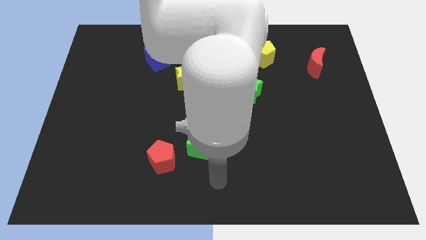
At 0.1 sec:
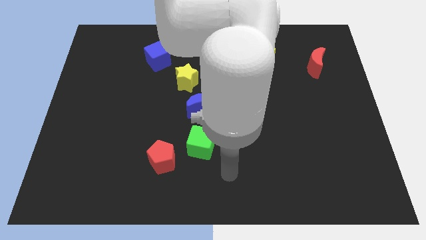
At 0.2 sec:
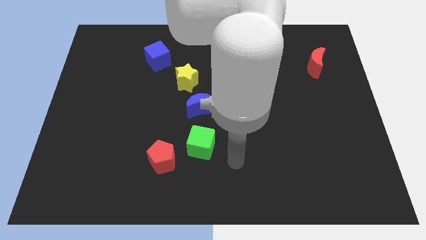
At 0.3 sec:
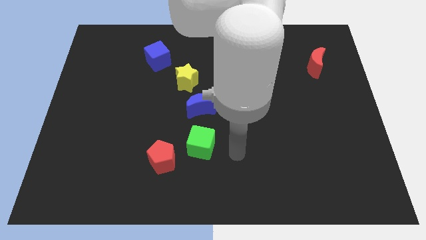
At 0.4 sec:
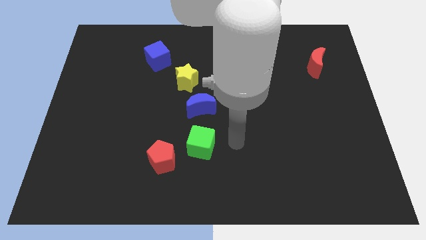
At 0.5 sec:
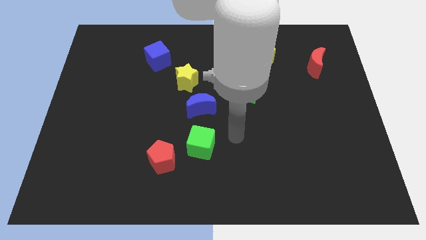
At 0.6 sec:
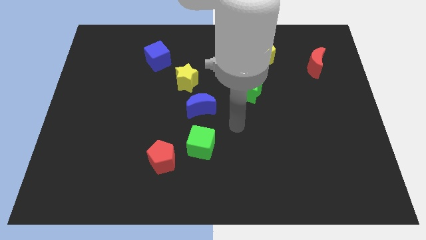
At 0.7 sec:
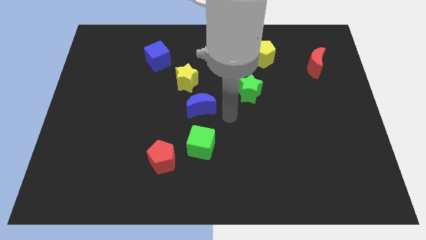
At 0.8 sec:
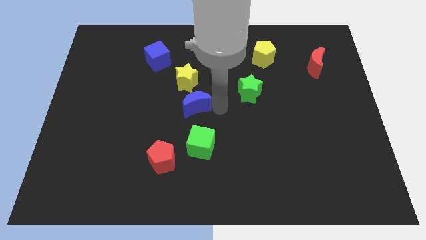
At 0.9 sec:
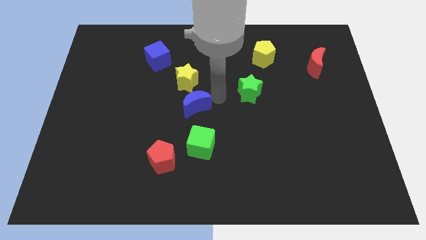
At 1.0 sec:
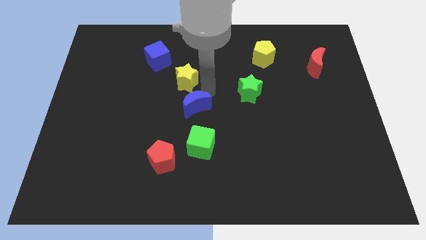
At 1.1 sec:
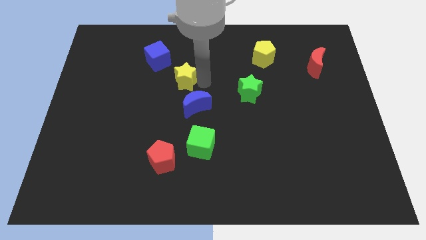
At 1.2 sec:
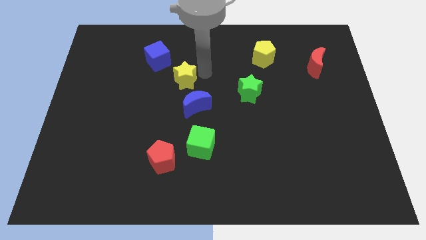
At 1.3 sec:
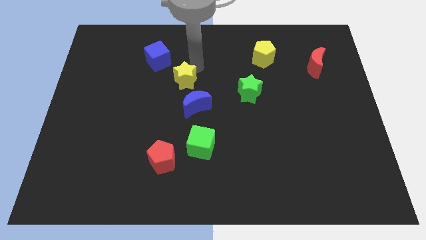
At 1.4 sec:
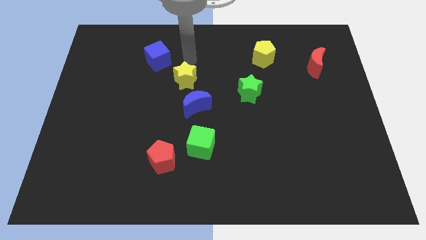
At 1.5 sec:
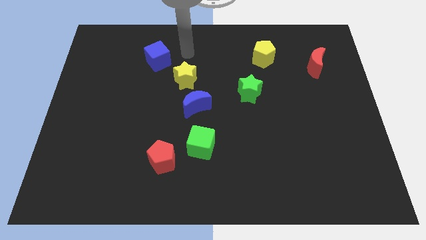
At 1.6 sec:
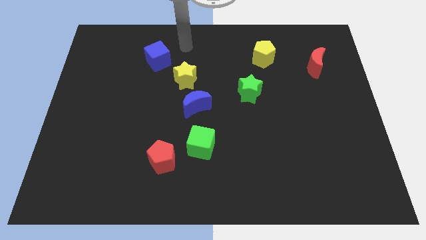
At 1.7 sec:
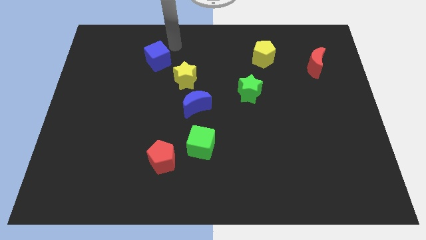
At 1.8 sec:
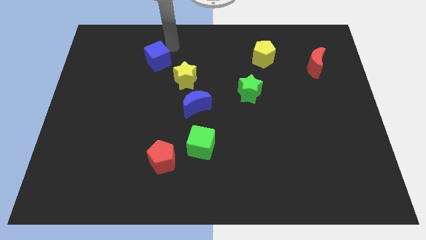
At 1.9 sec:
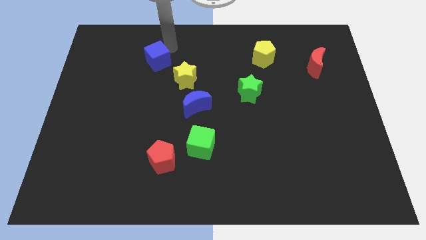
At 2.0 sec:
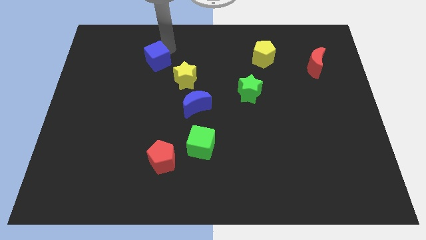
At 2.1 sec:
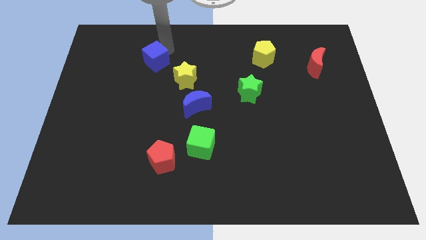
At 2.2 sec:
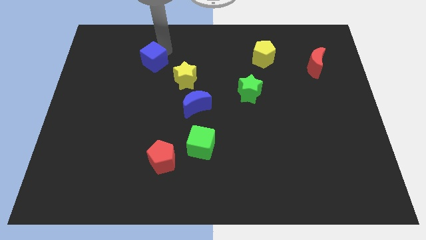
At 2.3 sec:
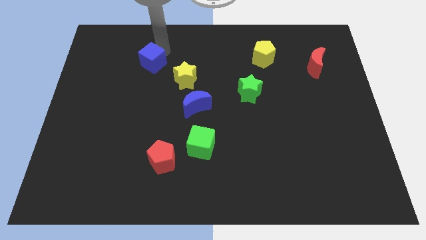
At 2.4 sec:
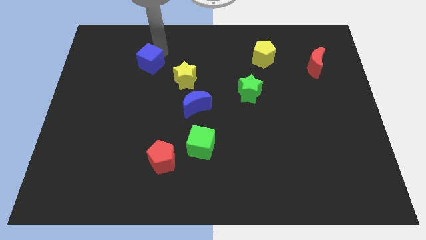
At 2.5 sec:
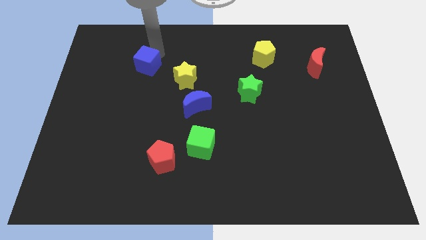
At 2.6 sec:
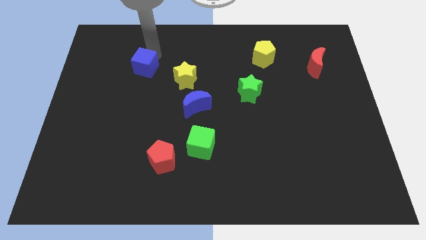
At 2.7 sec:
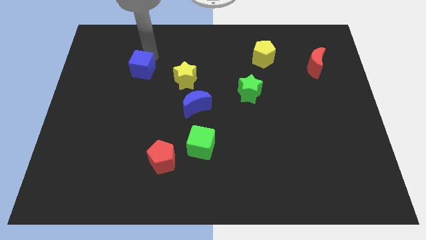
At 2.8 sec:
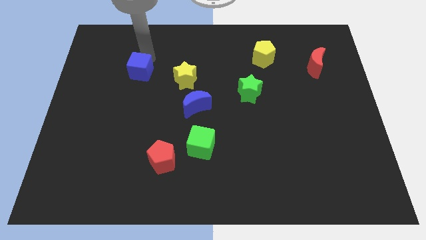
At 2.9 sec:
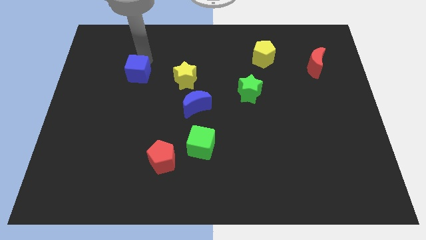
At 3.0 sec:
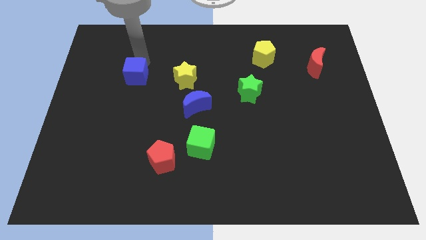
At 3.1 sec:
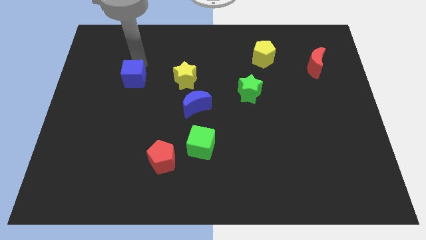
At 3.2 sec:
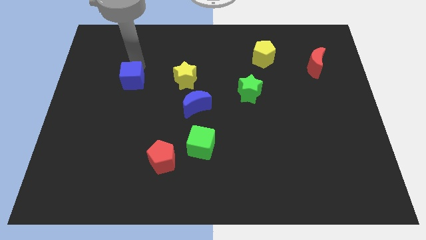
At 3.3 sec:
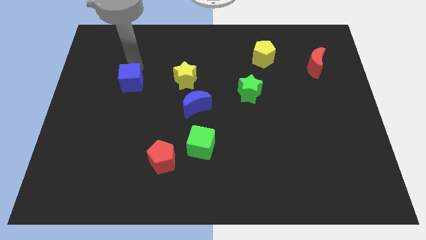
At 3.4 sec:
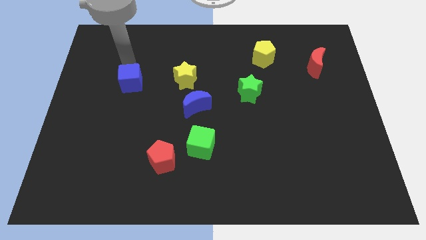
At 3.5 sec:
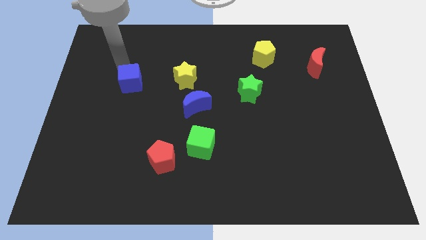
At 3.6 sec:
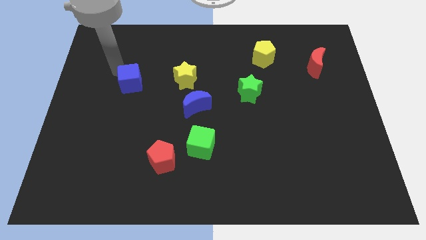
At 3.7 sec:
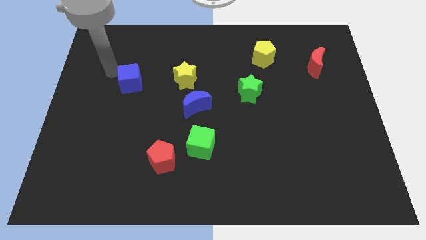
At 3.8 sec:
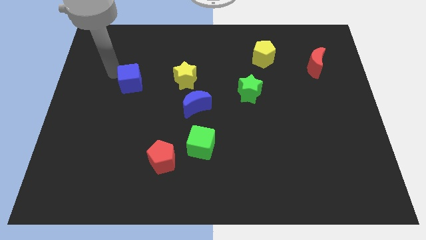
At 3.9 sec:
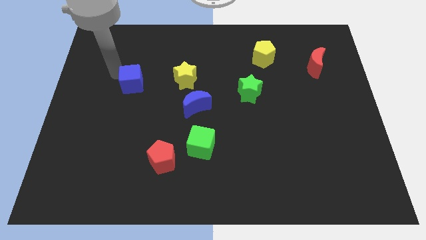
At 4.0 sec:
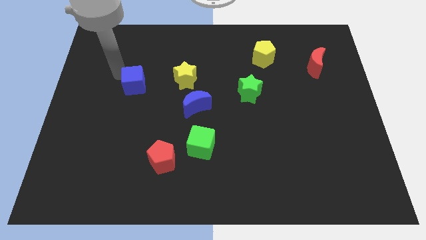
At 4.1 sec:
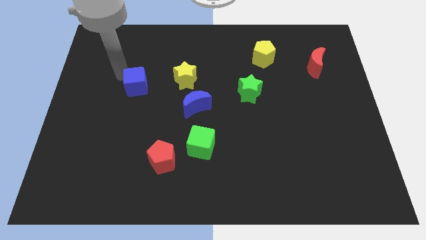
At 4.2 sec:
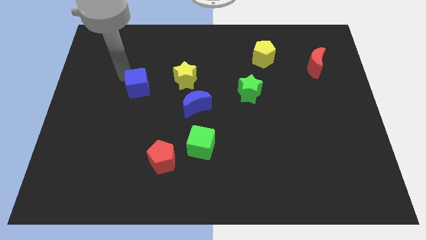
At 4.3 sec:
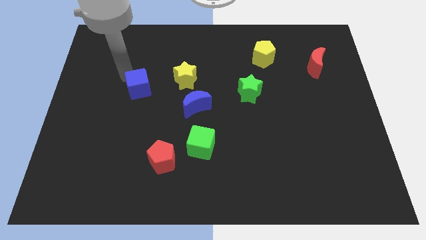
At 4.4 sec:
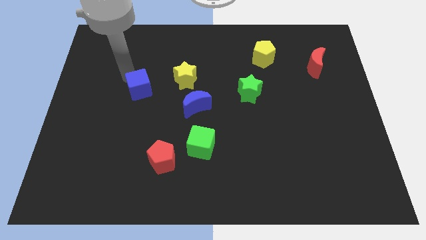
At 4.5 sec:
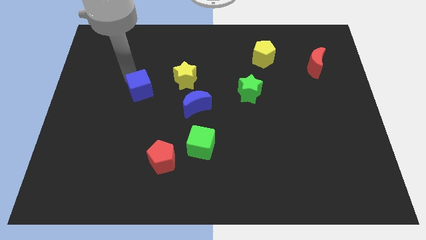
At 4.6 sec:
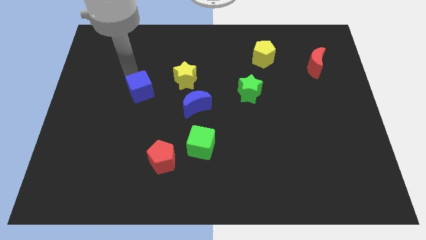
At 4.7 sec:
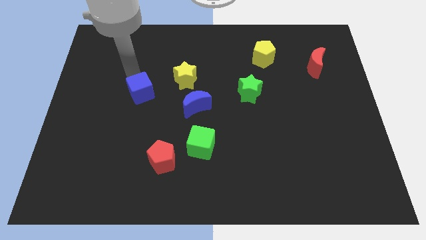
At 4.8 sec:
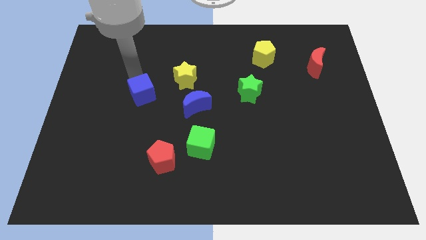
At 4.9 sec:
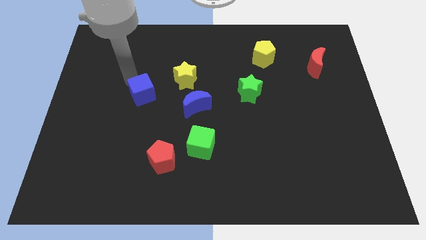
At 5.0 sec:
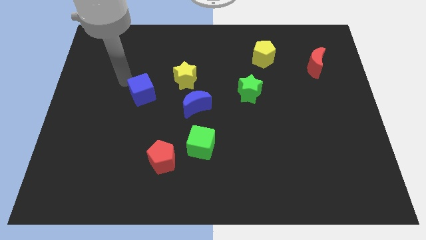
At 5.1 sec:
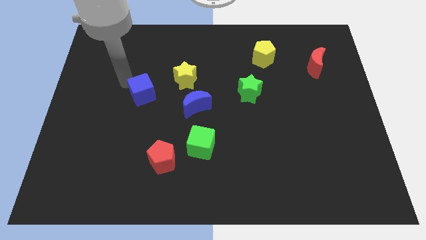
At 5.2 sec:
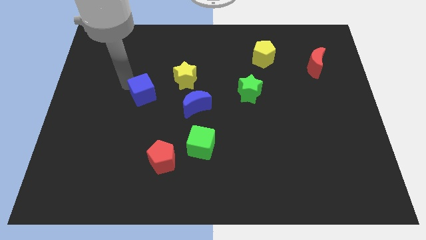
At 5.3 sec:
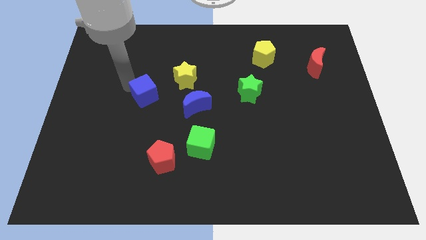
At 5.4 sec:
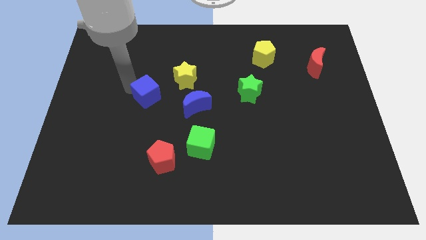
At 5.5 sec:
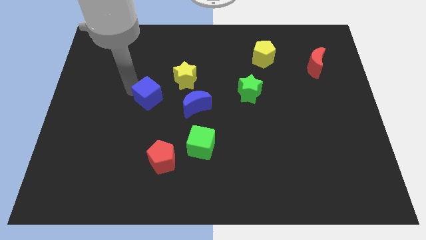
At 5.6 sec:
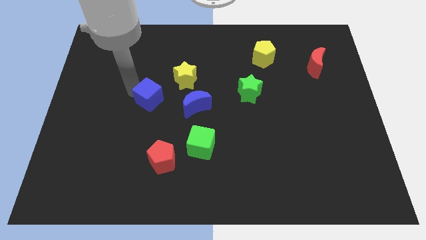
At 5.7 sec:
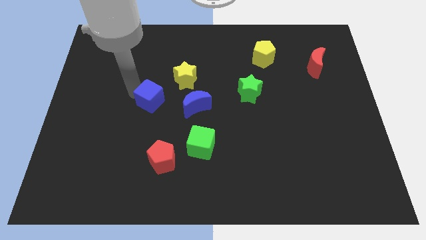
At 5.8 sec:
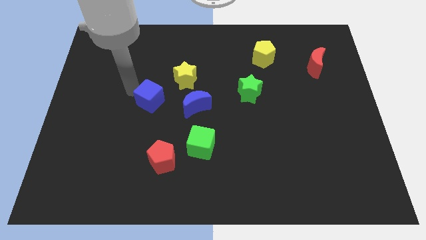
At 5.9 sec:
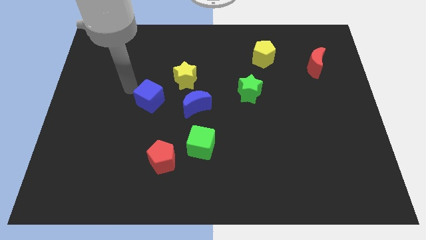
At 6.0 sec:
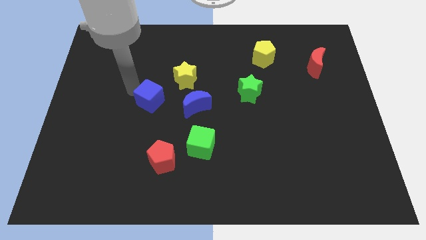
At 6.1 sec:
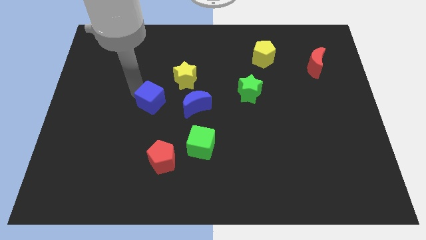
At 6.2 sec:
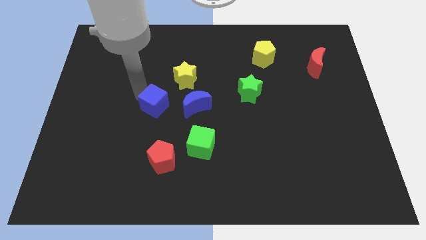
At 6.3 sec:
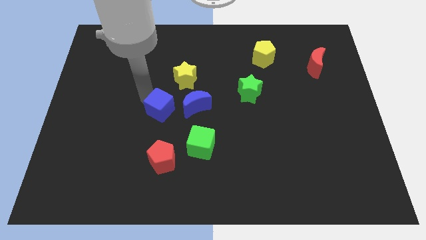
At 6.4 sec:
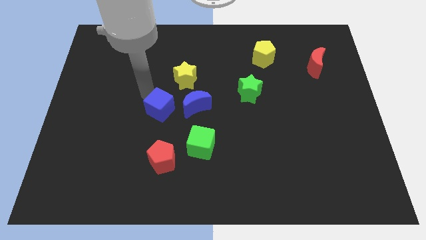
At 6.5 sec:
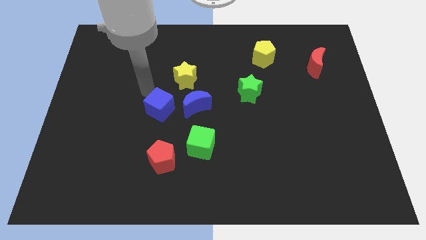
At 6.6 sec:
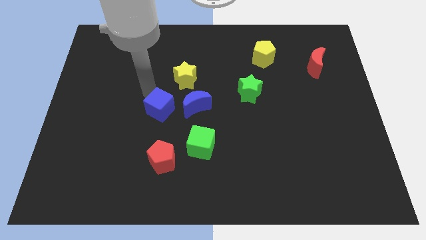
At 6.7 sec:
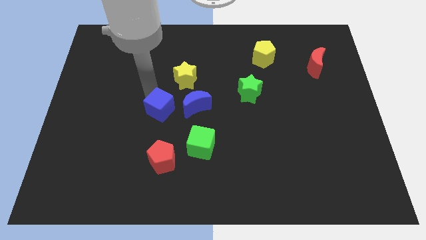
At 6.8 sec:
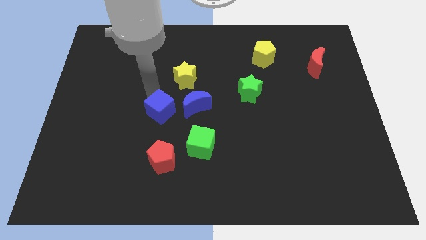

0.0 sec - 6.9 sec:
put the blue cube to the bottom left side of the blue moon
